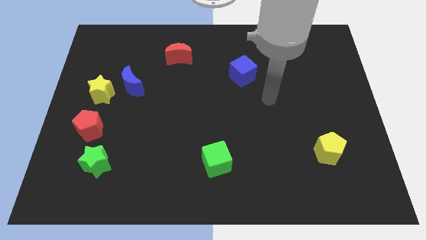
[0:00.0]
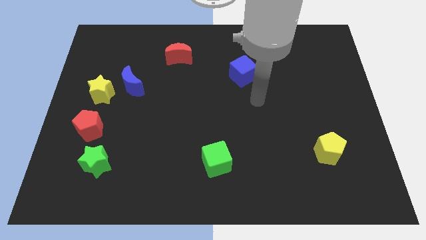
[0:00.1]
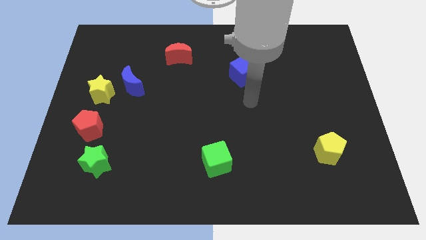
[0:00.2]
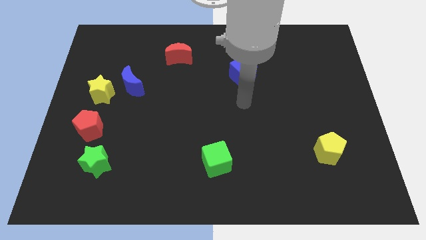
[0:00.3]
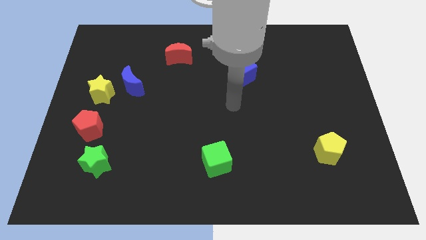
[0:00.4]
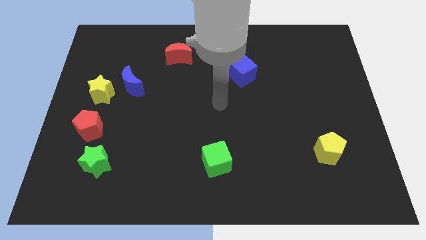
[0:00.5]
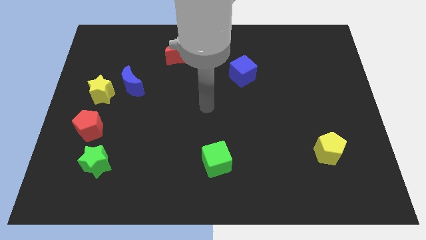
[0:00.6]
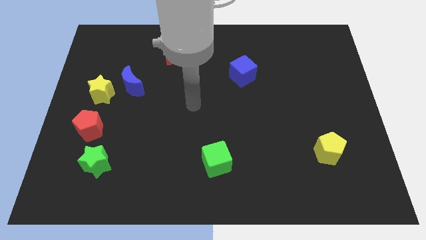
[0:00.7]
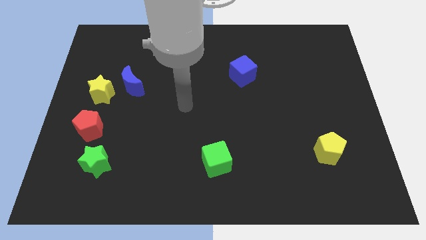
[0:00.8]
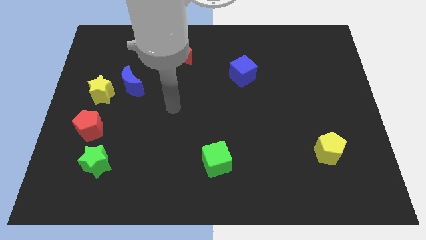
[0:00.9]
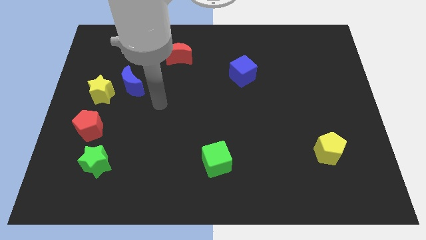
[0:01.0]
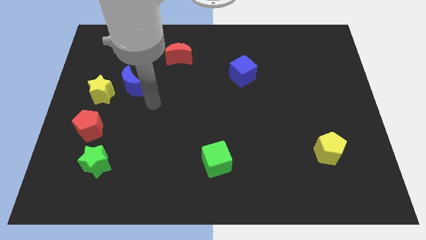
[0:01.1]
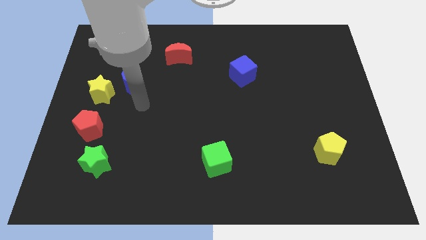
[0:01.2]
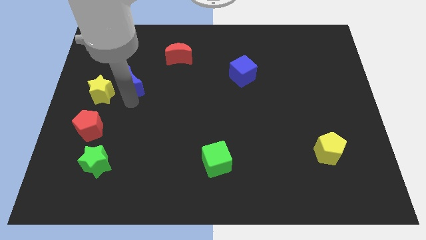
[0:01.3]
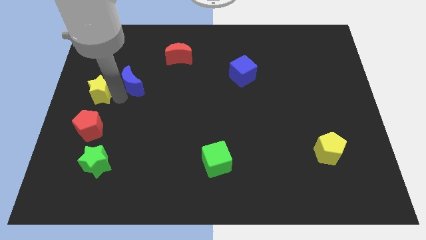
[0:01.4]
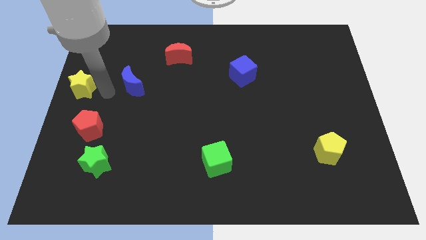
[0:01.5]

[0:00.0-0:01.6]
move the blue moon away from the yellow star

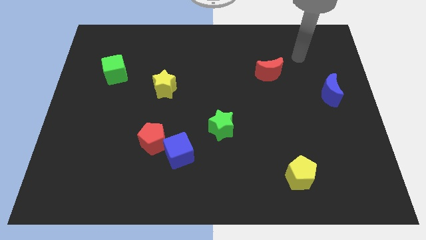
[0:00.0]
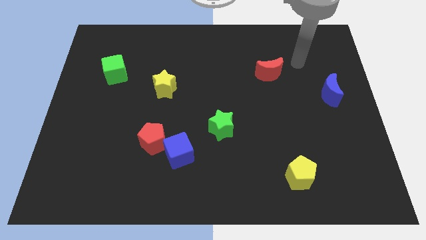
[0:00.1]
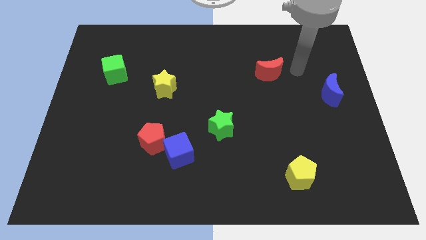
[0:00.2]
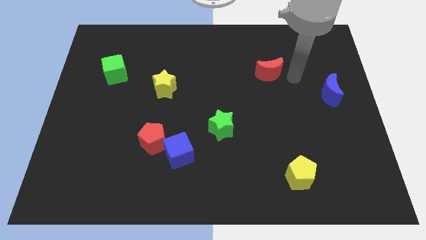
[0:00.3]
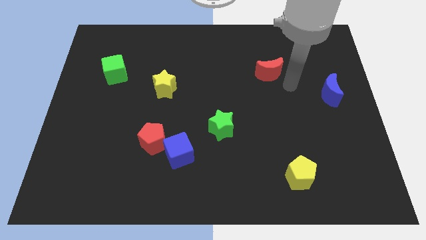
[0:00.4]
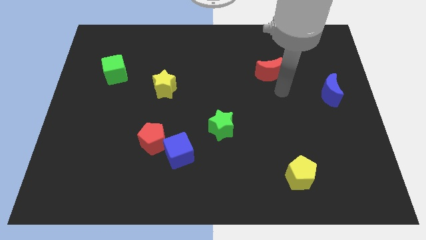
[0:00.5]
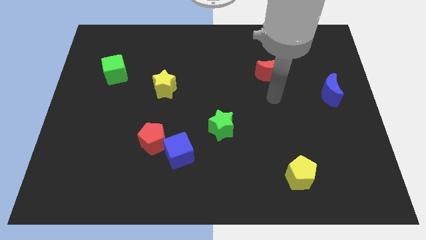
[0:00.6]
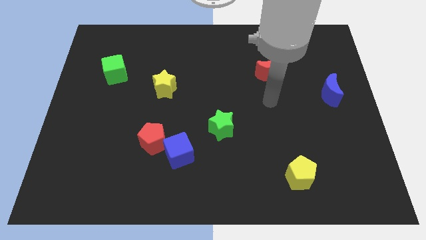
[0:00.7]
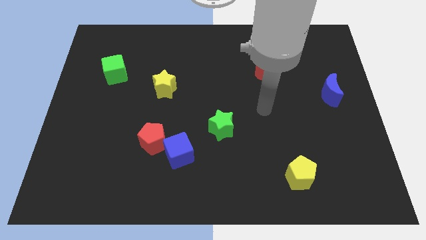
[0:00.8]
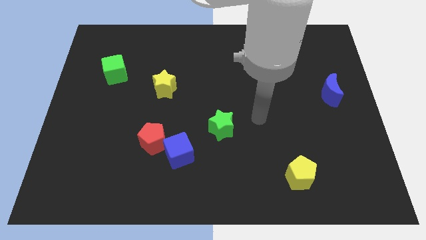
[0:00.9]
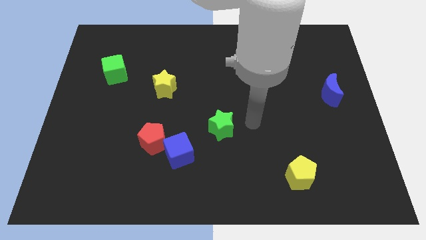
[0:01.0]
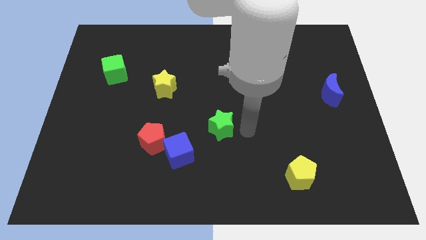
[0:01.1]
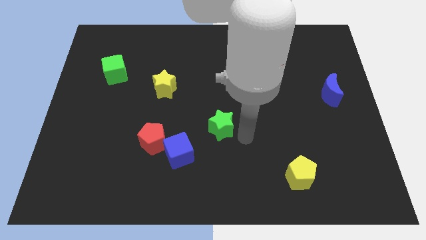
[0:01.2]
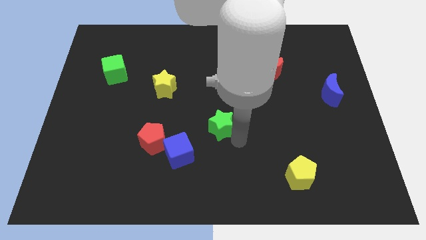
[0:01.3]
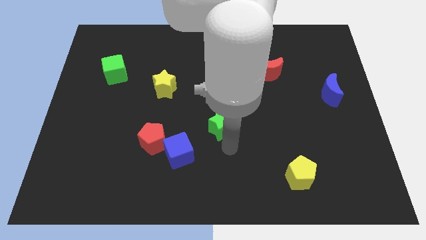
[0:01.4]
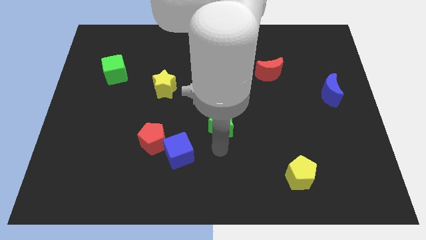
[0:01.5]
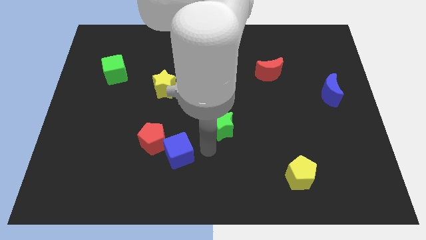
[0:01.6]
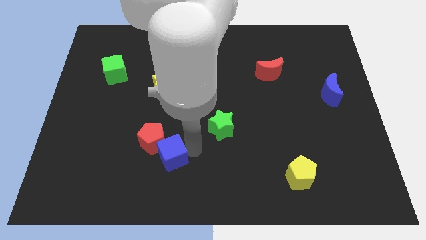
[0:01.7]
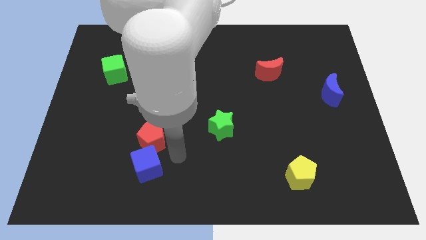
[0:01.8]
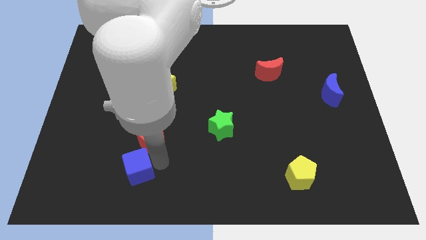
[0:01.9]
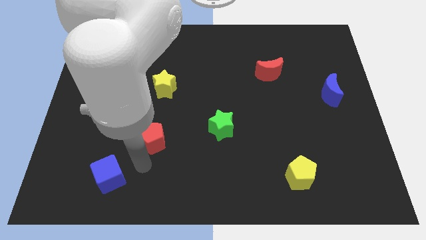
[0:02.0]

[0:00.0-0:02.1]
pull the red pentagon apart from the blue cube

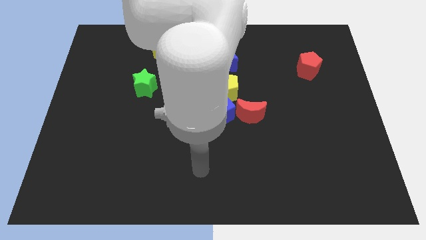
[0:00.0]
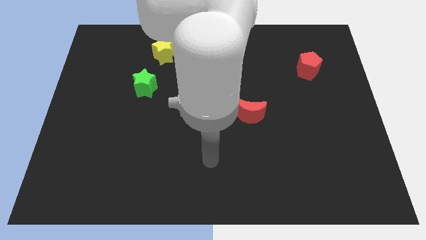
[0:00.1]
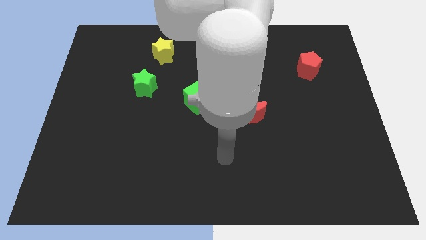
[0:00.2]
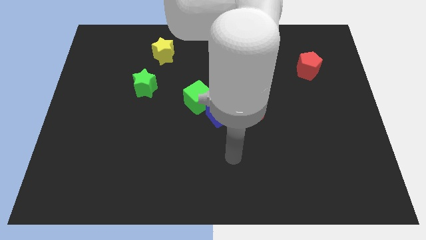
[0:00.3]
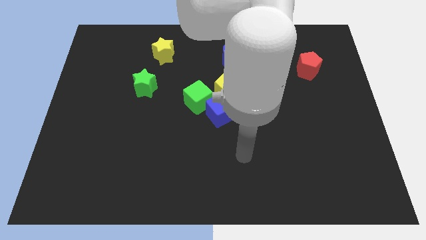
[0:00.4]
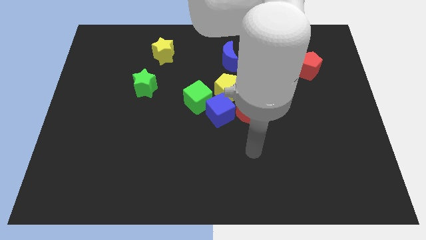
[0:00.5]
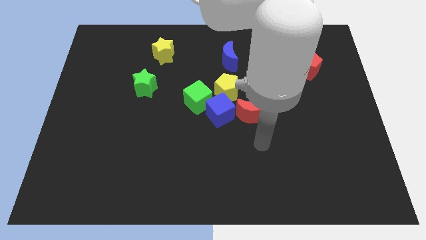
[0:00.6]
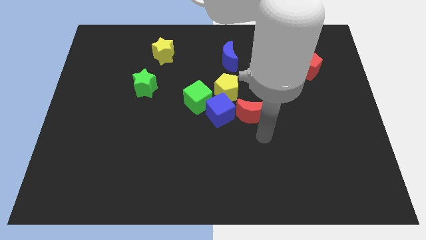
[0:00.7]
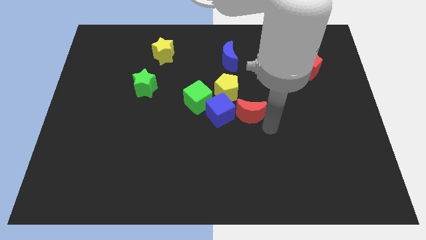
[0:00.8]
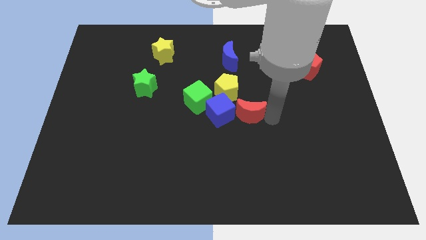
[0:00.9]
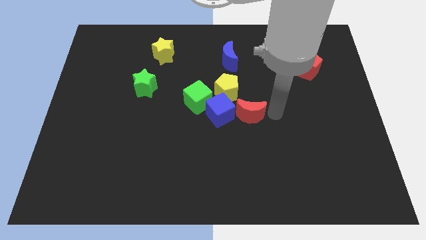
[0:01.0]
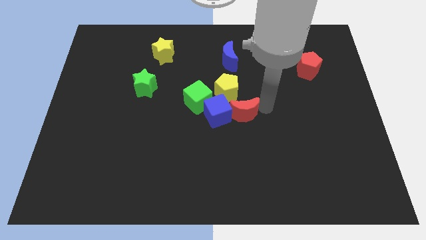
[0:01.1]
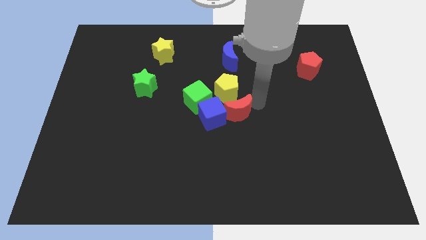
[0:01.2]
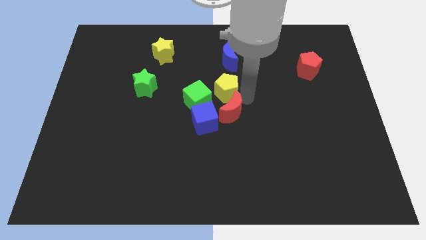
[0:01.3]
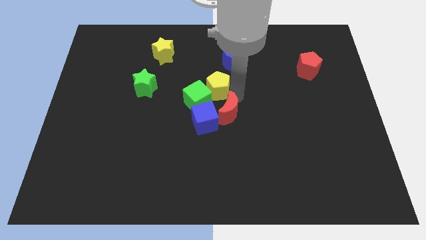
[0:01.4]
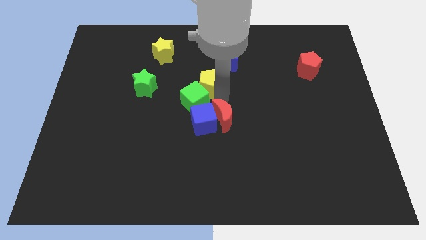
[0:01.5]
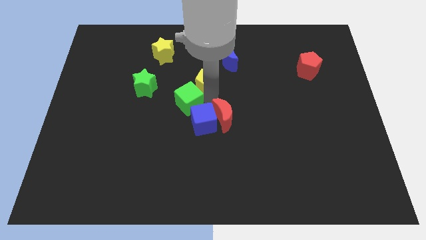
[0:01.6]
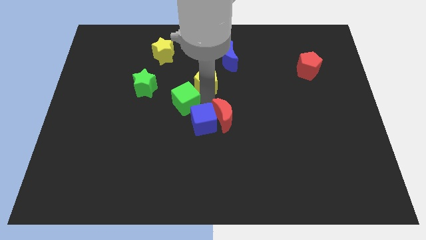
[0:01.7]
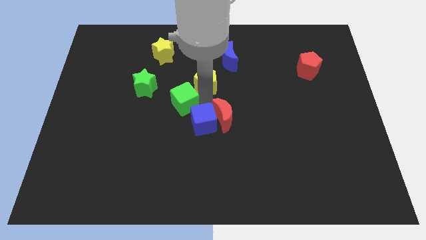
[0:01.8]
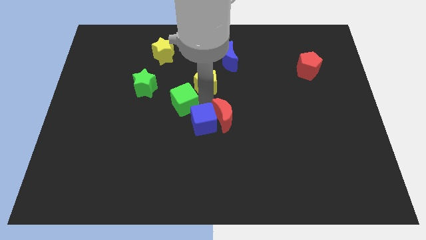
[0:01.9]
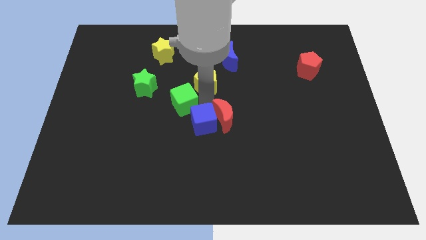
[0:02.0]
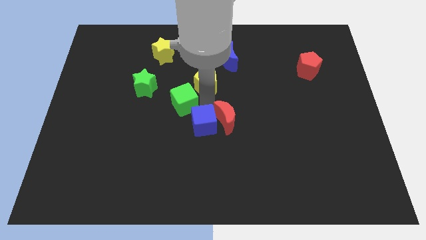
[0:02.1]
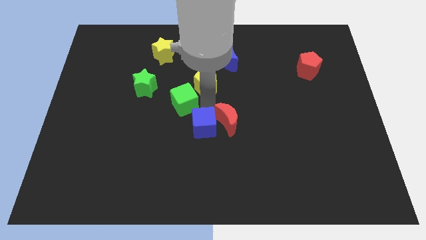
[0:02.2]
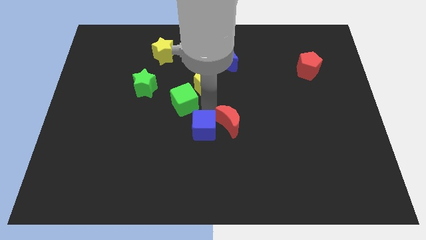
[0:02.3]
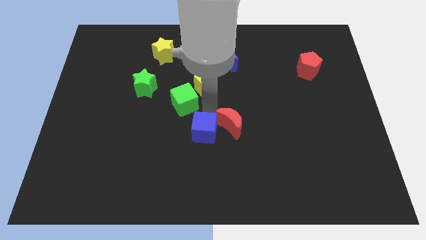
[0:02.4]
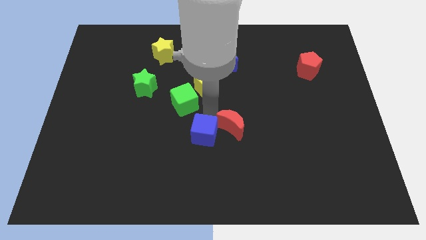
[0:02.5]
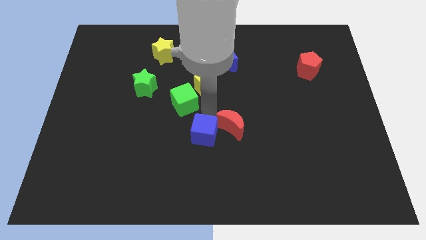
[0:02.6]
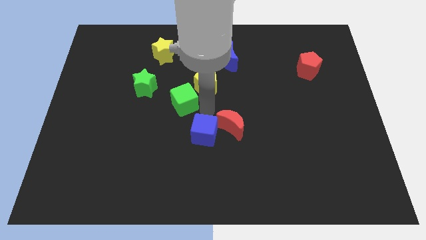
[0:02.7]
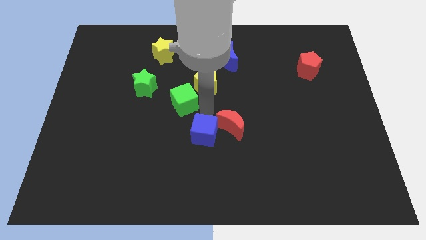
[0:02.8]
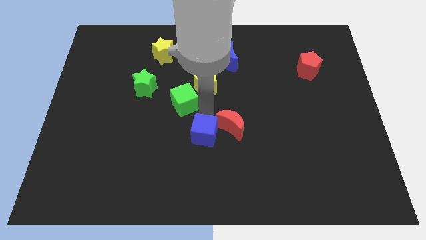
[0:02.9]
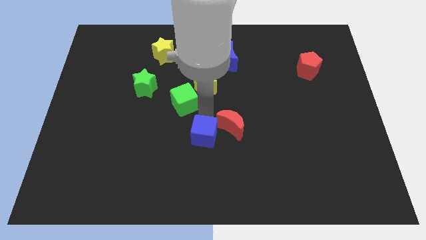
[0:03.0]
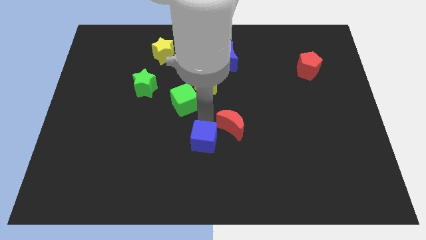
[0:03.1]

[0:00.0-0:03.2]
separate the blue cube from the green cube, yellow pentagon, and red moon

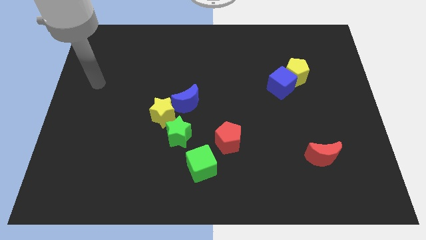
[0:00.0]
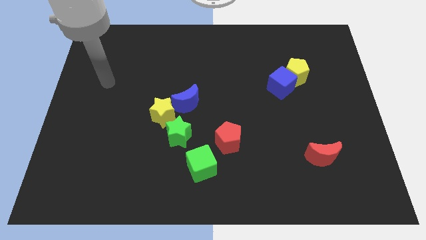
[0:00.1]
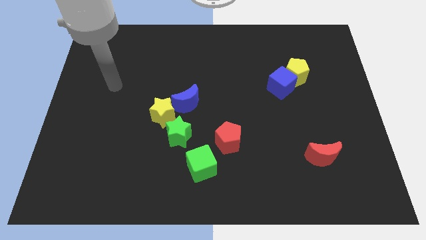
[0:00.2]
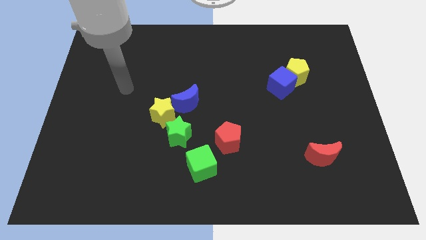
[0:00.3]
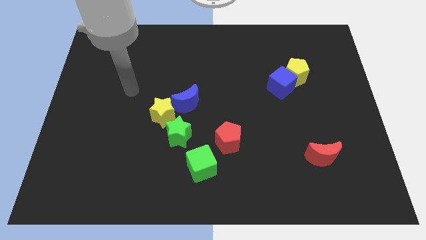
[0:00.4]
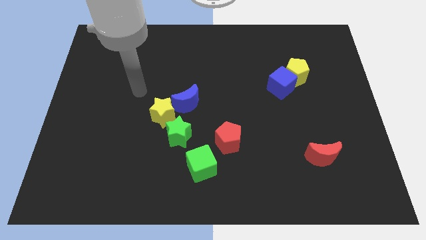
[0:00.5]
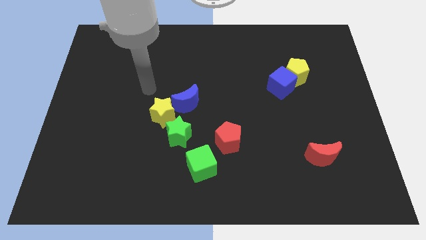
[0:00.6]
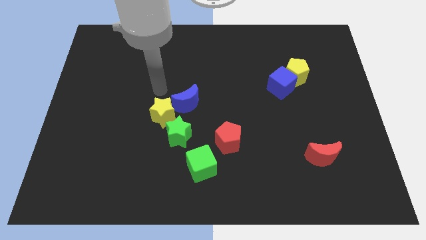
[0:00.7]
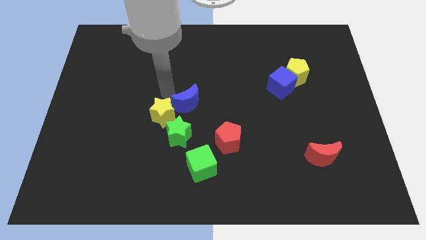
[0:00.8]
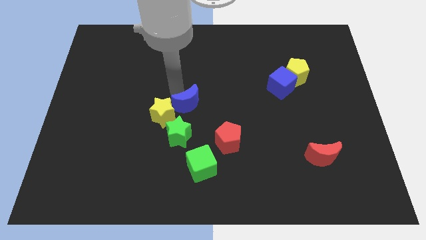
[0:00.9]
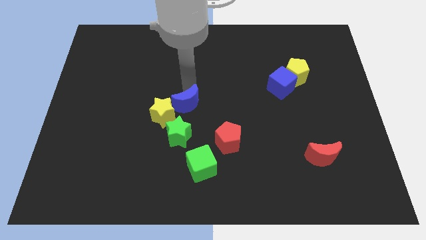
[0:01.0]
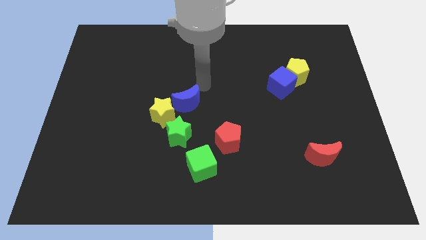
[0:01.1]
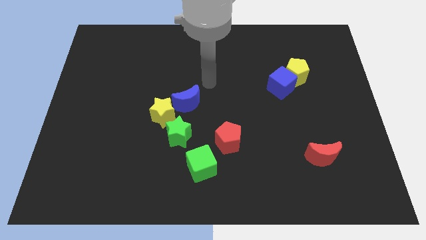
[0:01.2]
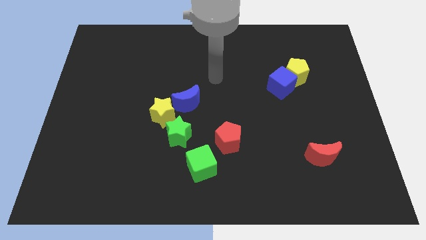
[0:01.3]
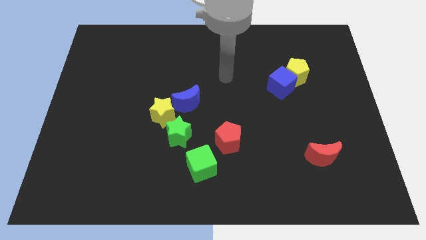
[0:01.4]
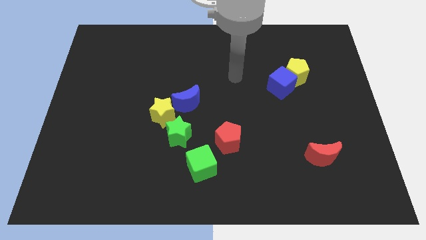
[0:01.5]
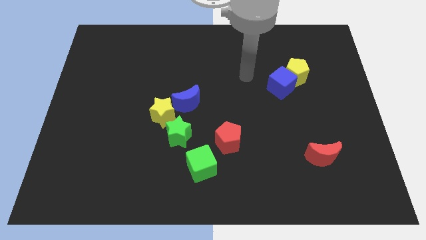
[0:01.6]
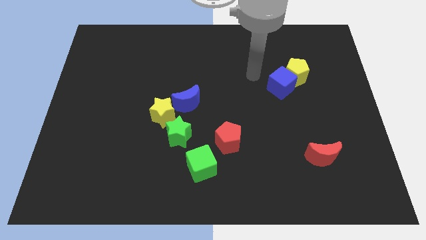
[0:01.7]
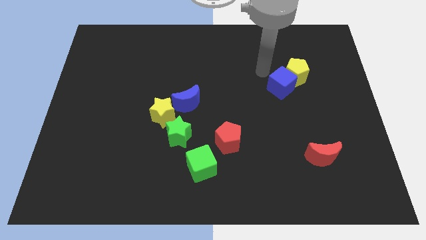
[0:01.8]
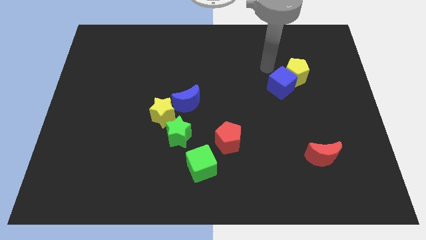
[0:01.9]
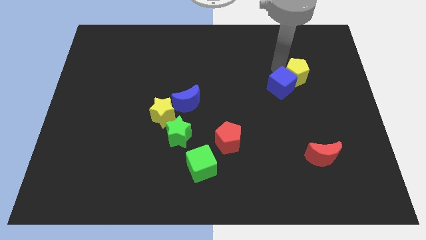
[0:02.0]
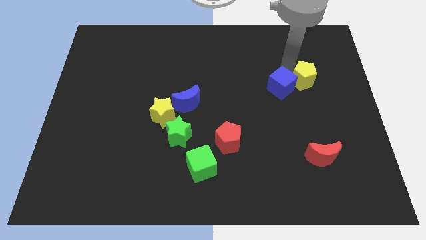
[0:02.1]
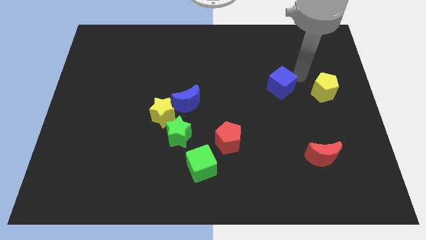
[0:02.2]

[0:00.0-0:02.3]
separate the blue cube from the yellow pentagon
